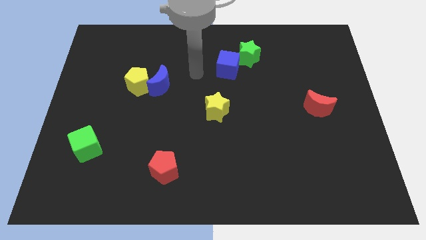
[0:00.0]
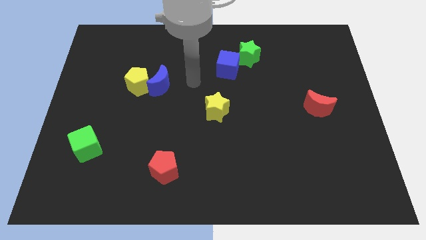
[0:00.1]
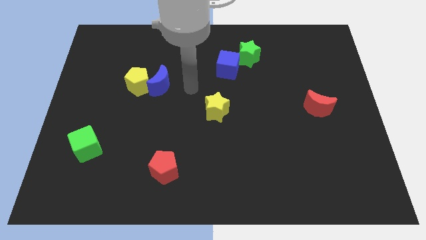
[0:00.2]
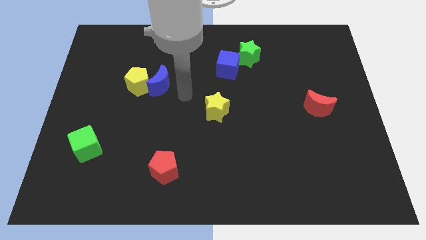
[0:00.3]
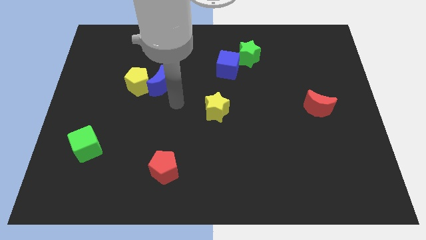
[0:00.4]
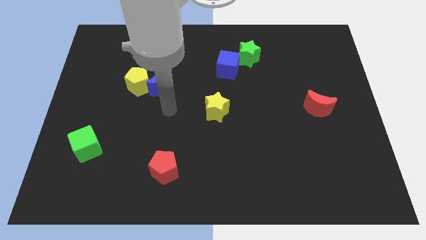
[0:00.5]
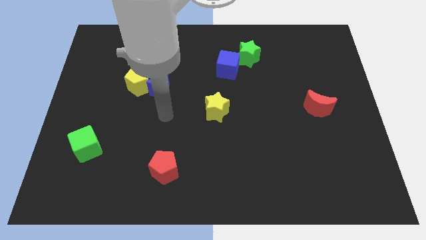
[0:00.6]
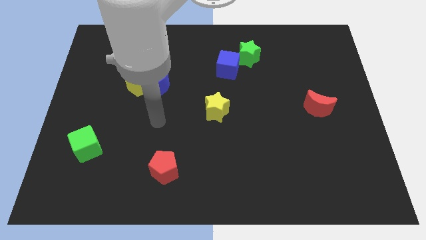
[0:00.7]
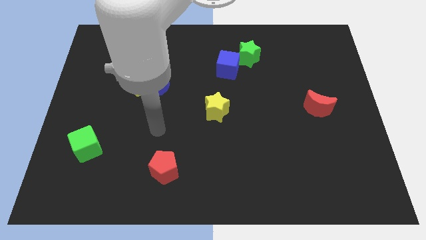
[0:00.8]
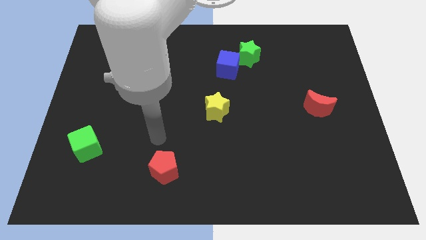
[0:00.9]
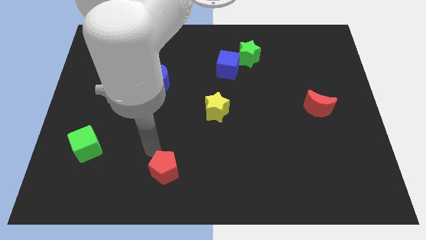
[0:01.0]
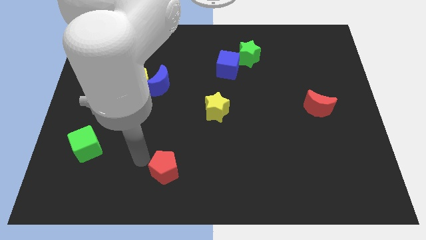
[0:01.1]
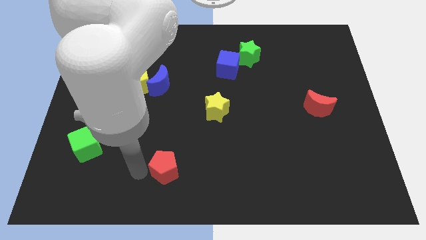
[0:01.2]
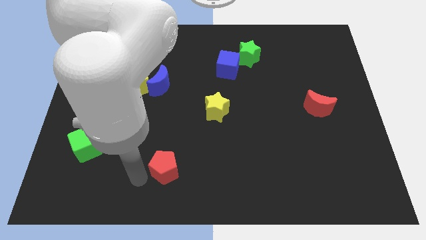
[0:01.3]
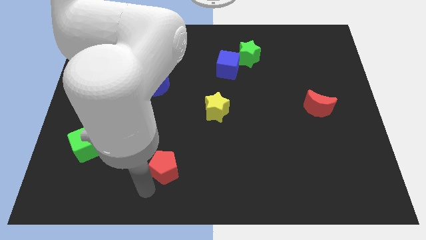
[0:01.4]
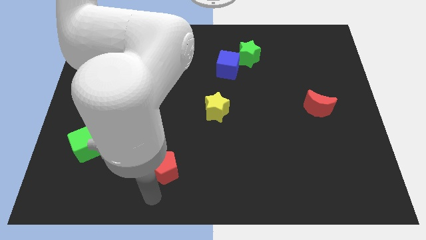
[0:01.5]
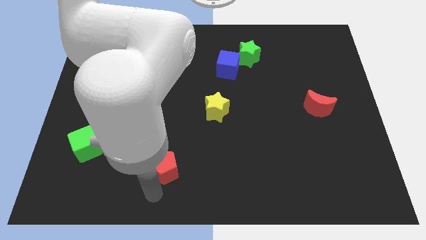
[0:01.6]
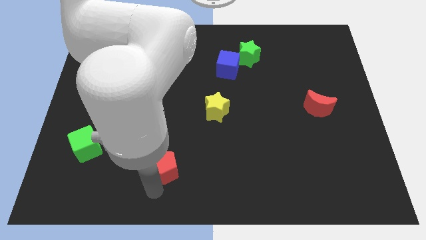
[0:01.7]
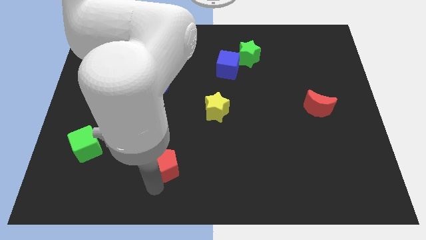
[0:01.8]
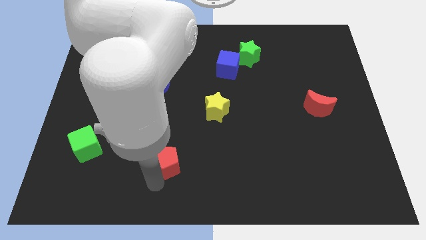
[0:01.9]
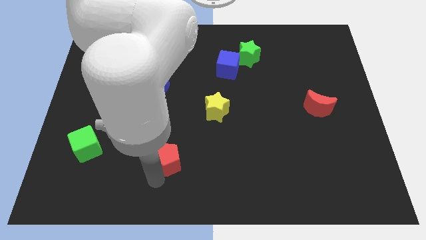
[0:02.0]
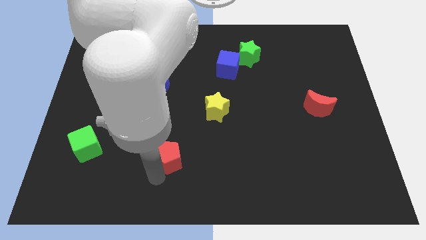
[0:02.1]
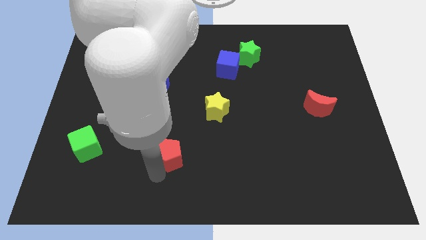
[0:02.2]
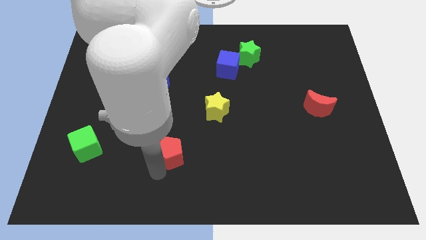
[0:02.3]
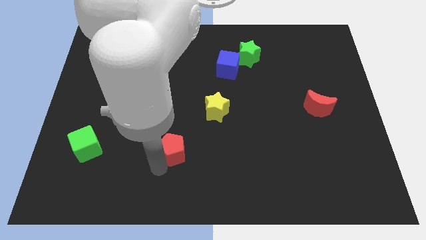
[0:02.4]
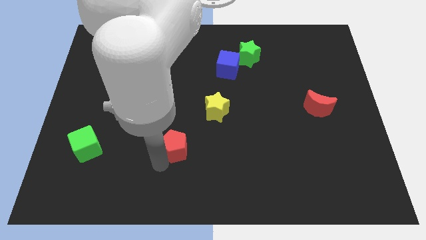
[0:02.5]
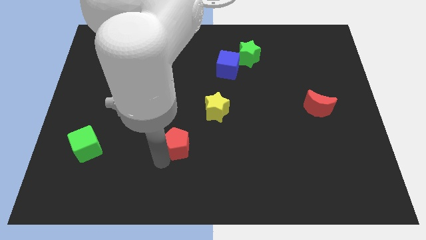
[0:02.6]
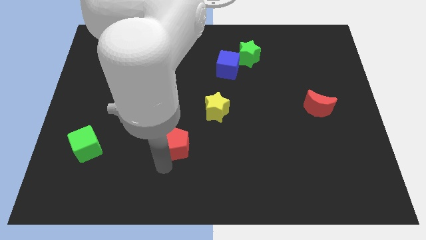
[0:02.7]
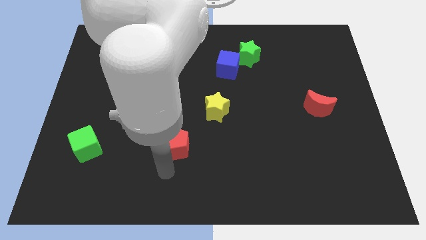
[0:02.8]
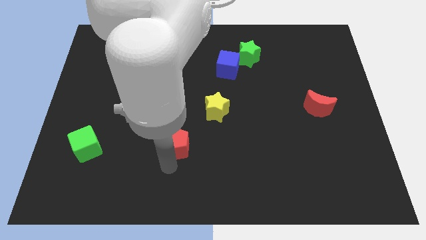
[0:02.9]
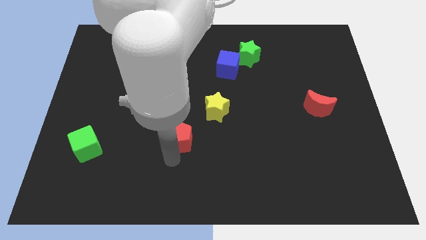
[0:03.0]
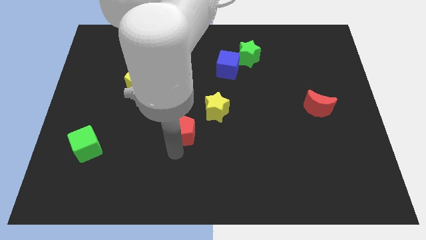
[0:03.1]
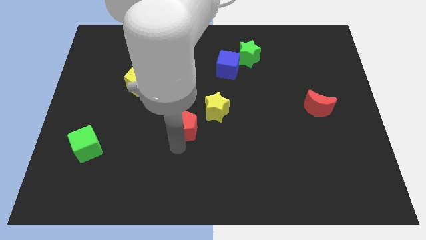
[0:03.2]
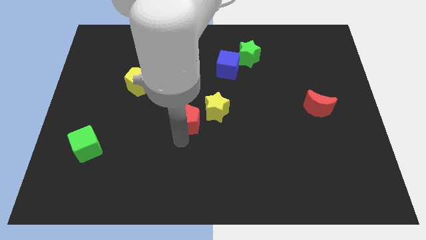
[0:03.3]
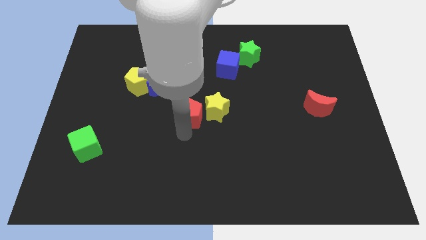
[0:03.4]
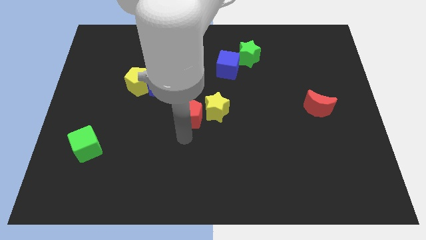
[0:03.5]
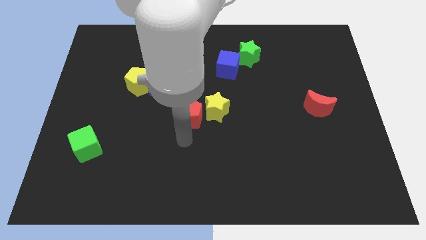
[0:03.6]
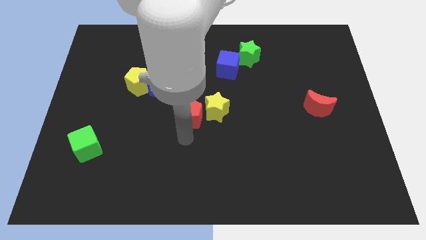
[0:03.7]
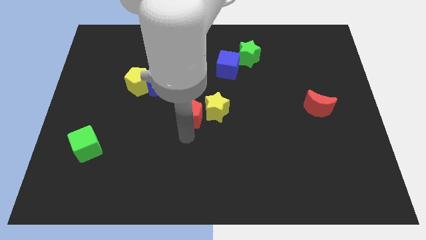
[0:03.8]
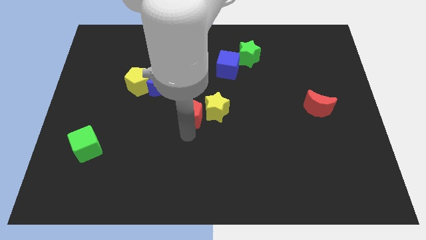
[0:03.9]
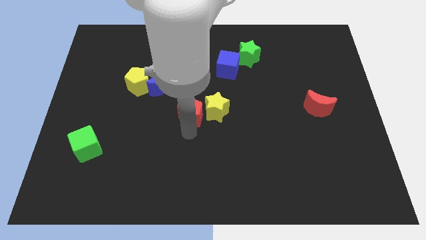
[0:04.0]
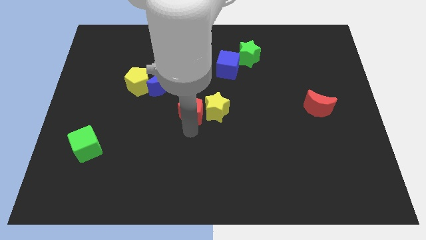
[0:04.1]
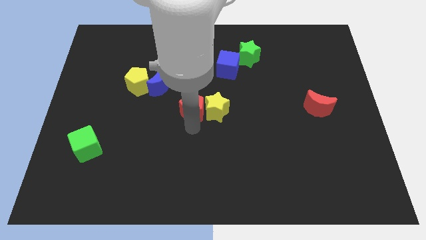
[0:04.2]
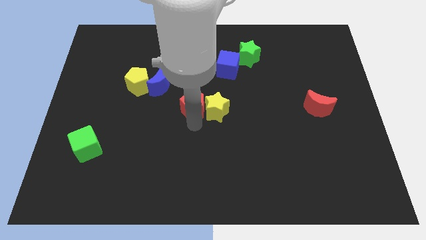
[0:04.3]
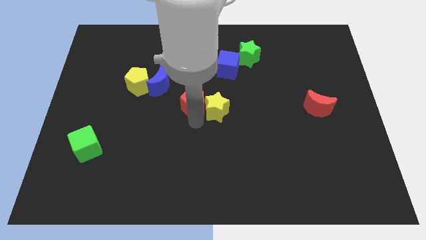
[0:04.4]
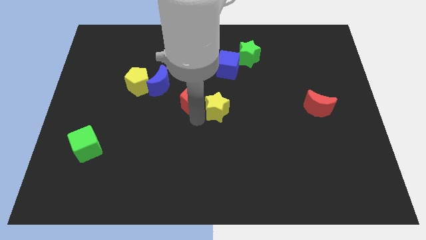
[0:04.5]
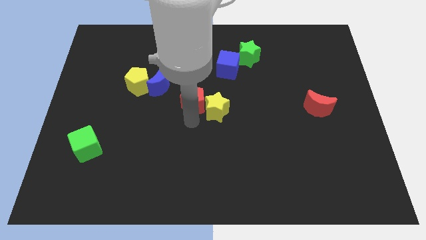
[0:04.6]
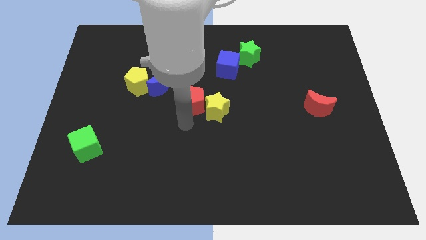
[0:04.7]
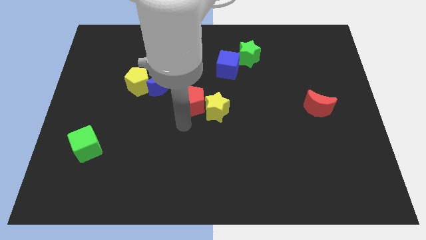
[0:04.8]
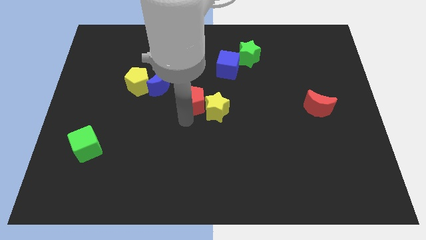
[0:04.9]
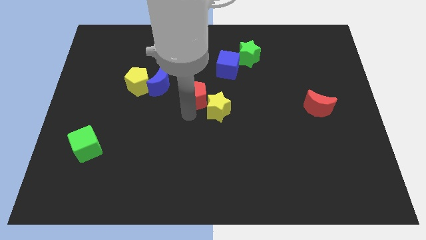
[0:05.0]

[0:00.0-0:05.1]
move the red pentagon just right of the blue moon

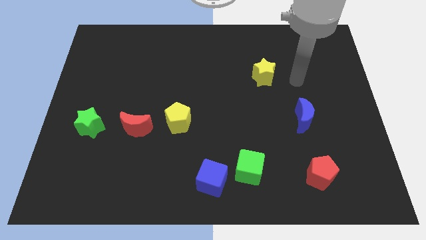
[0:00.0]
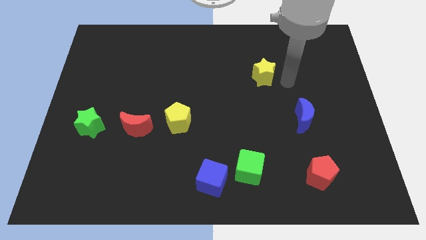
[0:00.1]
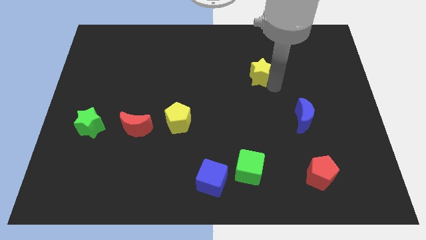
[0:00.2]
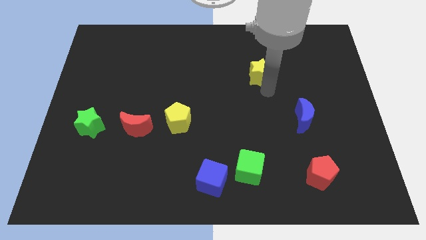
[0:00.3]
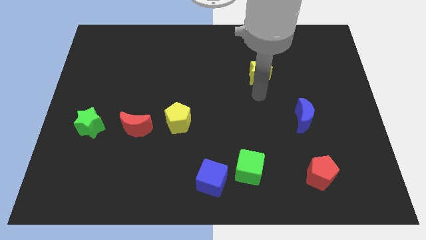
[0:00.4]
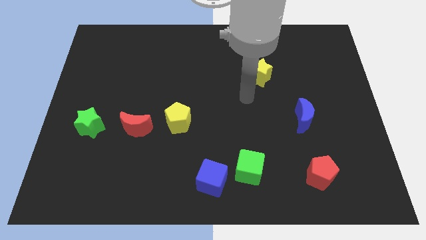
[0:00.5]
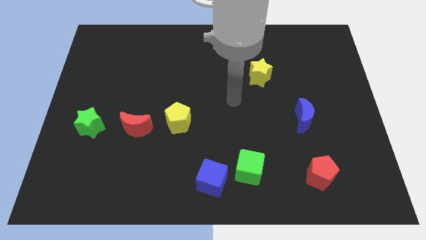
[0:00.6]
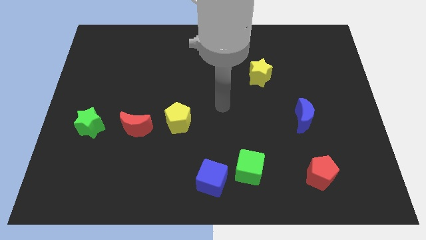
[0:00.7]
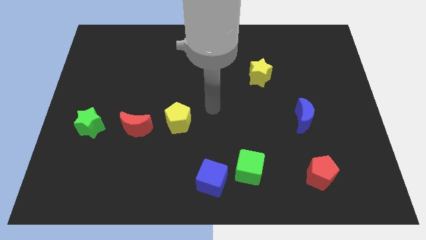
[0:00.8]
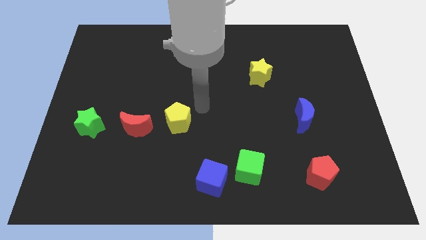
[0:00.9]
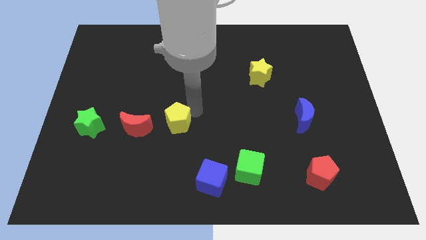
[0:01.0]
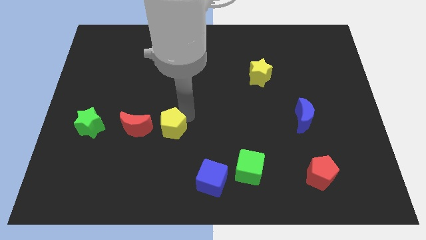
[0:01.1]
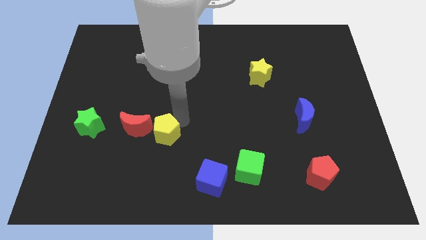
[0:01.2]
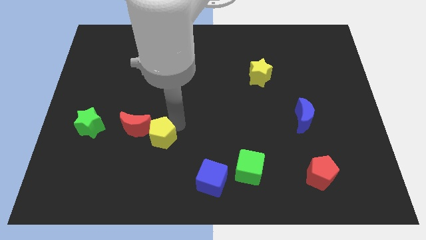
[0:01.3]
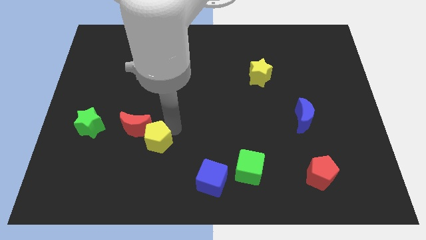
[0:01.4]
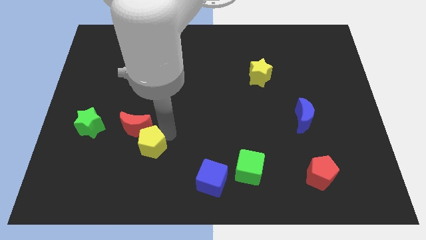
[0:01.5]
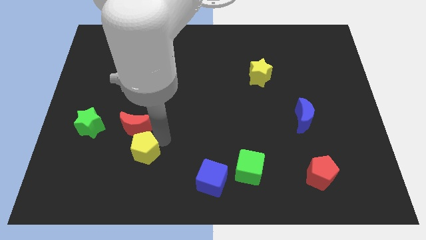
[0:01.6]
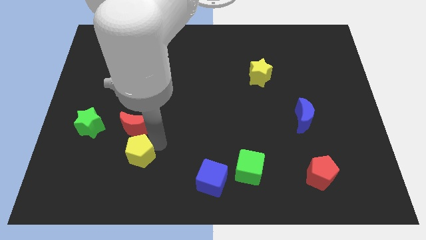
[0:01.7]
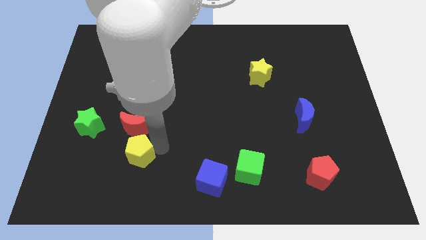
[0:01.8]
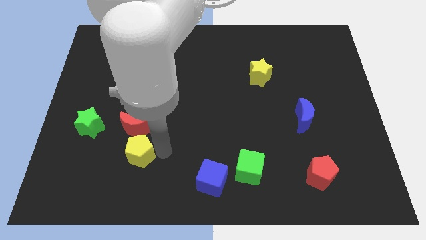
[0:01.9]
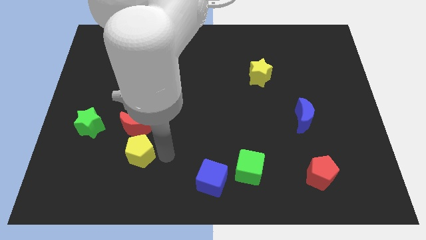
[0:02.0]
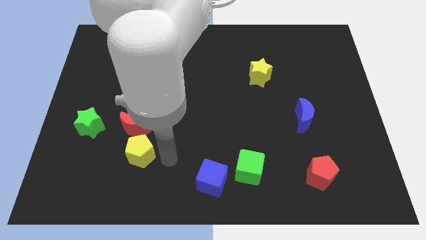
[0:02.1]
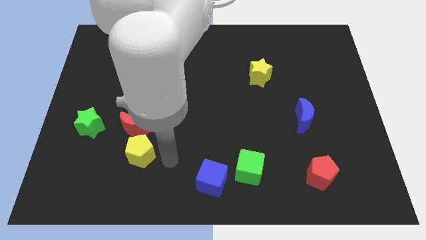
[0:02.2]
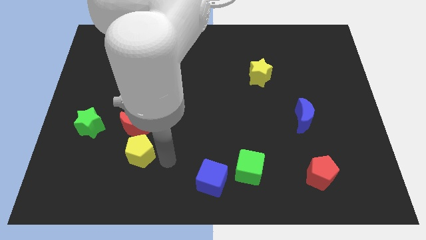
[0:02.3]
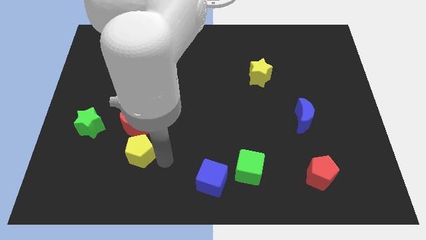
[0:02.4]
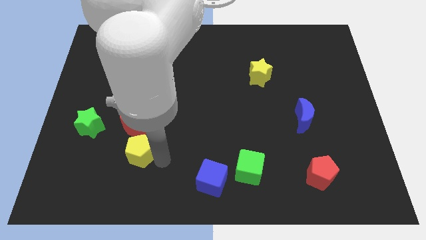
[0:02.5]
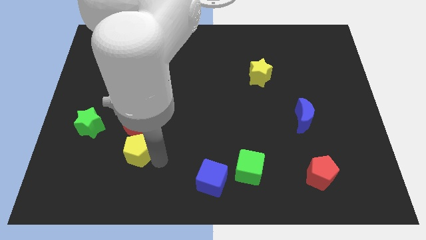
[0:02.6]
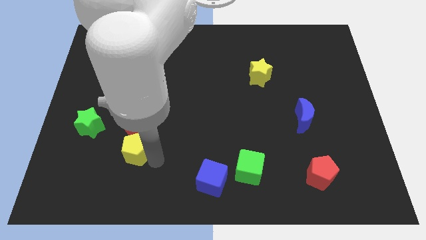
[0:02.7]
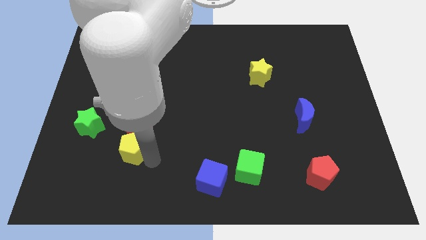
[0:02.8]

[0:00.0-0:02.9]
slide the yellow pentagon to the bottom right side of the green star
